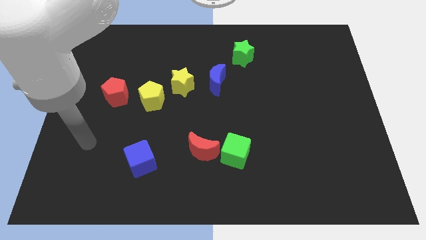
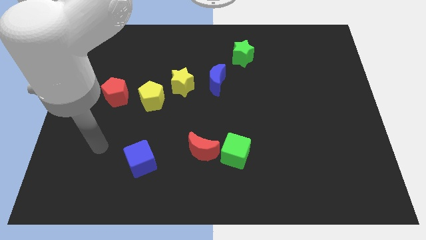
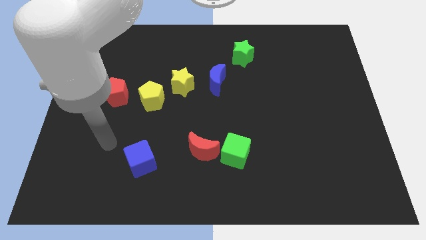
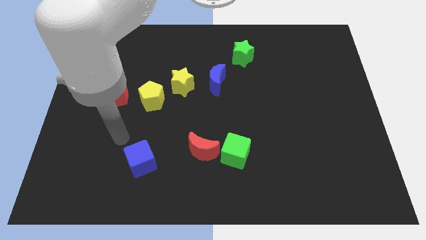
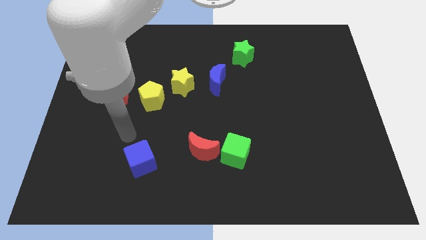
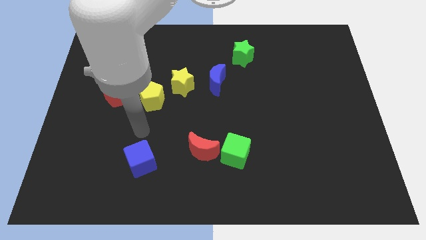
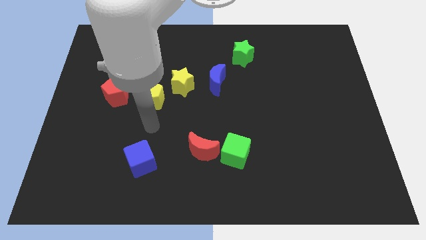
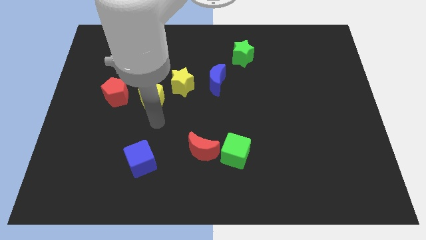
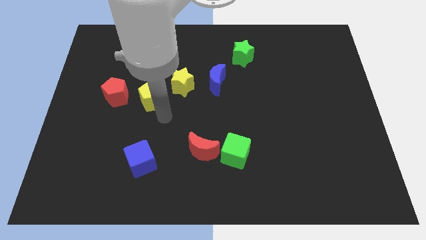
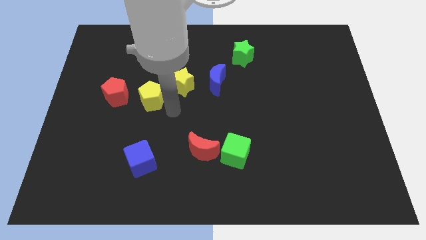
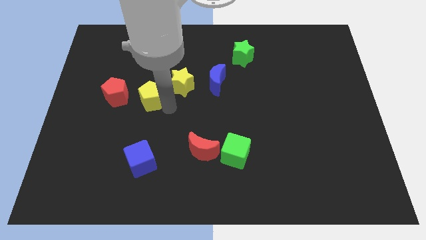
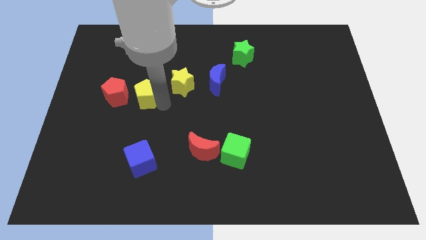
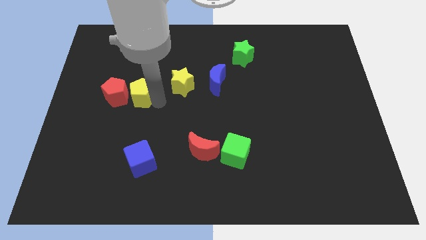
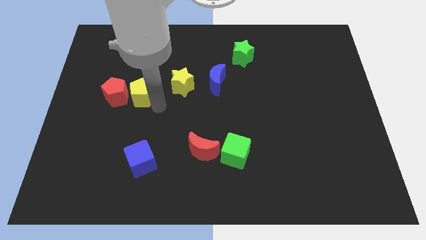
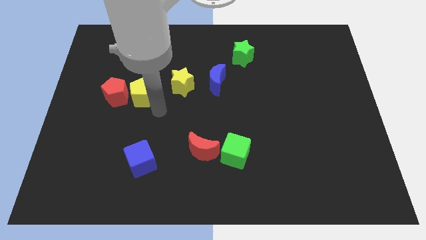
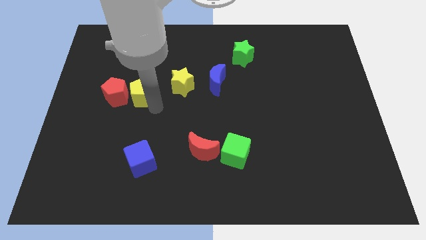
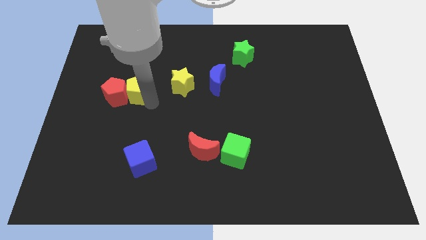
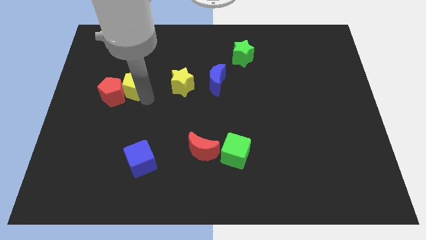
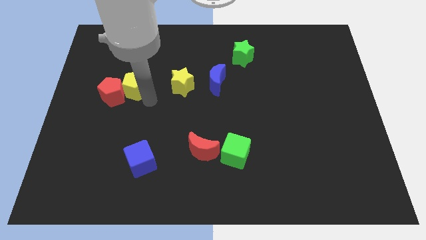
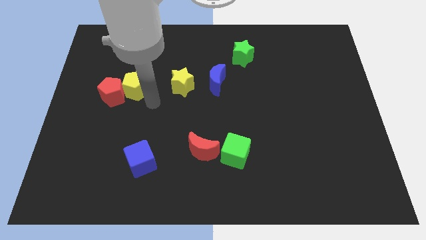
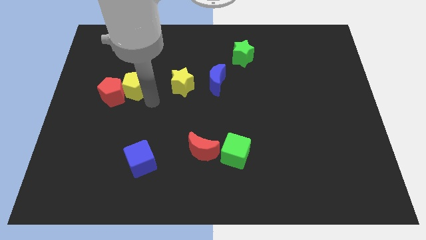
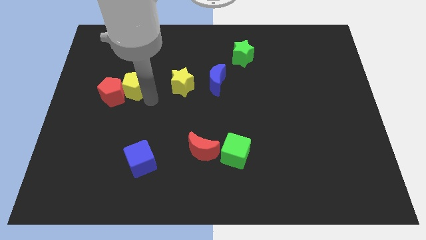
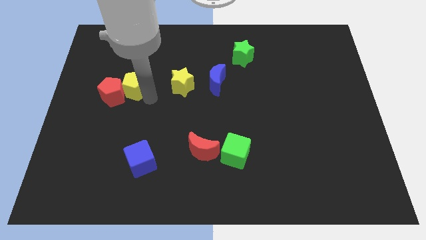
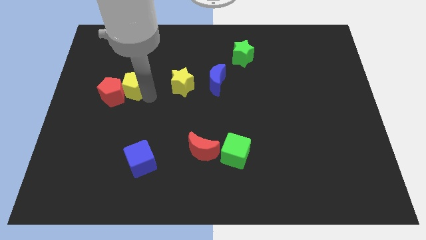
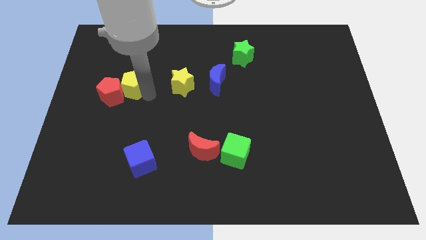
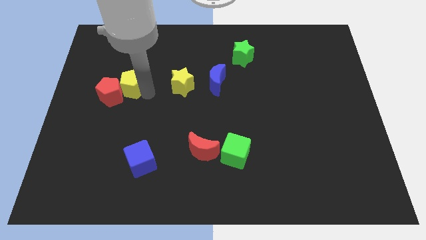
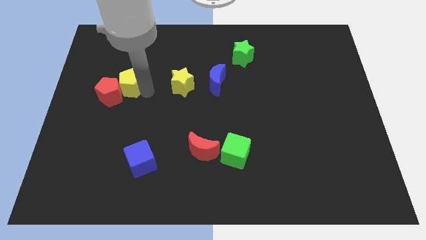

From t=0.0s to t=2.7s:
slide the yellow pentagon a little upwards and then left

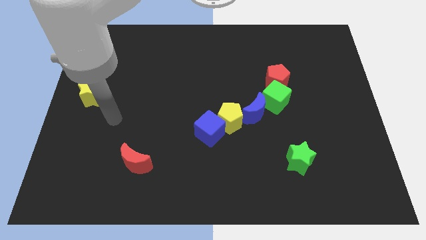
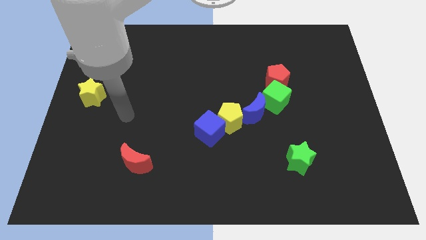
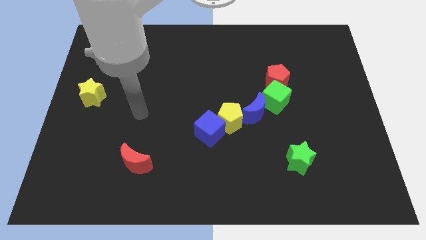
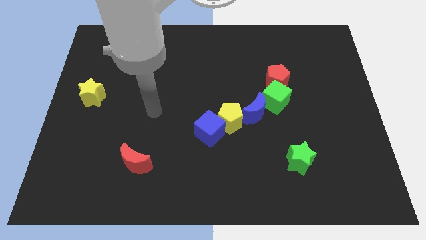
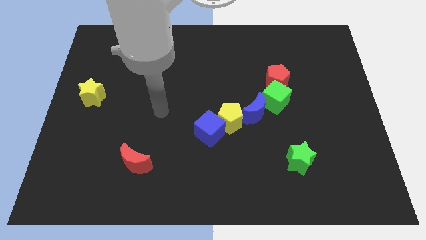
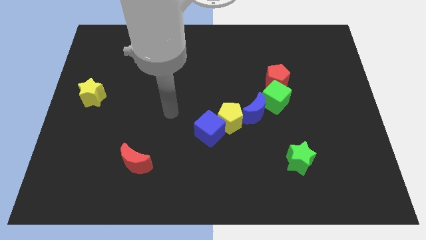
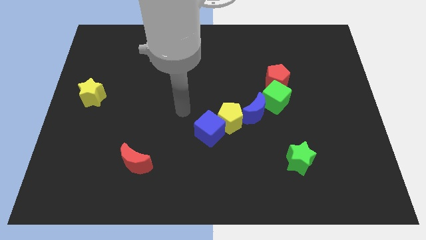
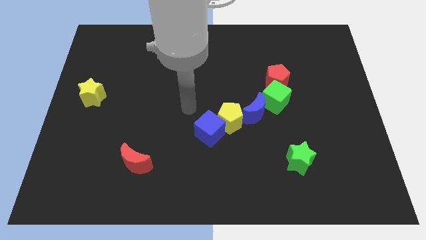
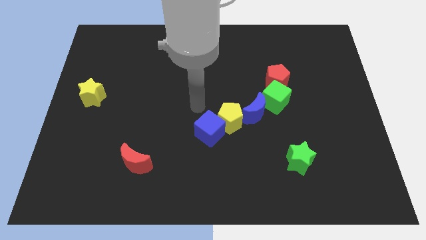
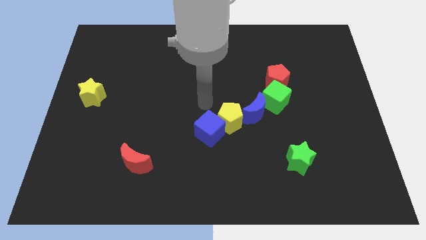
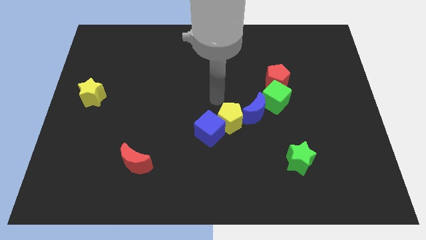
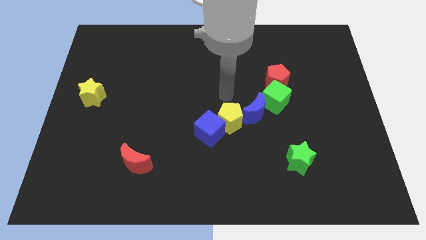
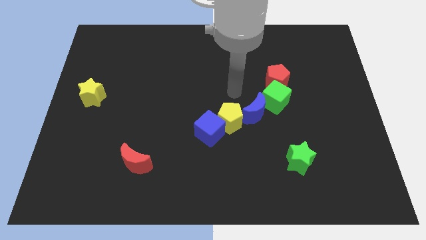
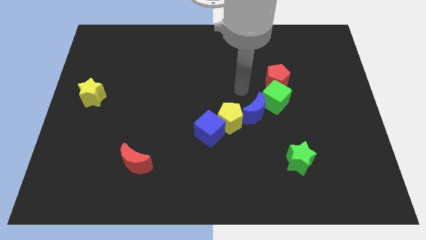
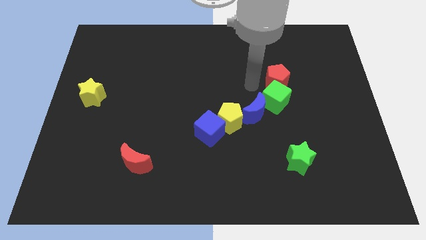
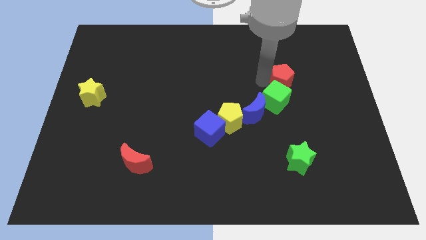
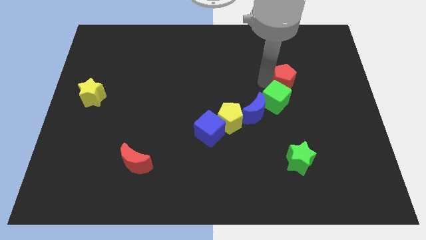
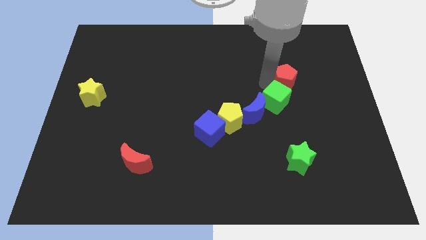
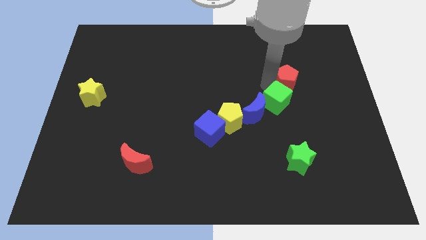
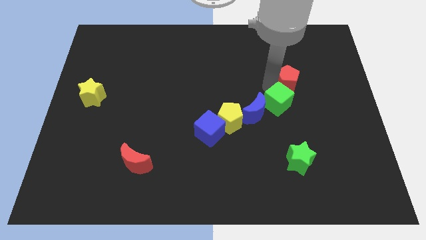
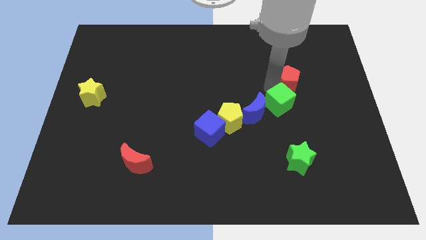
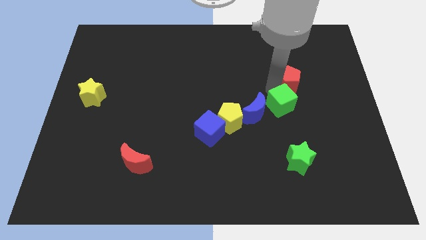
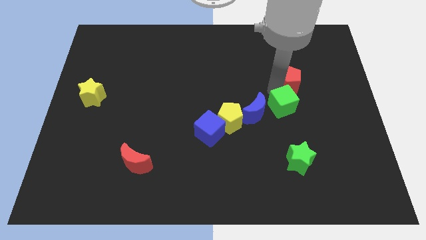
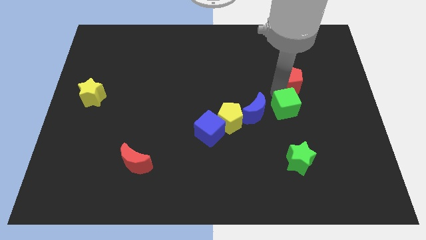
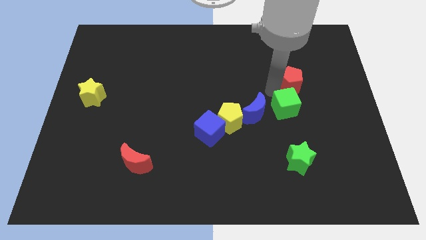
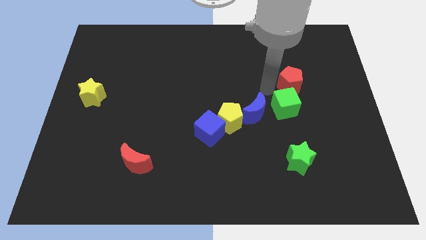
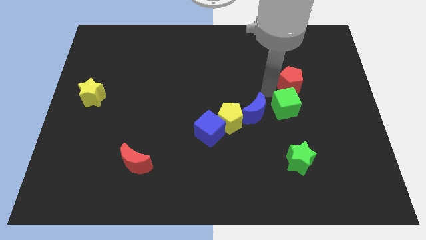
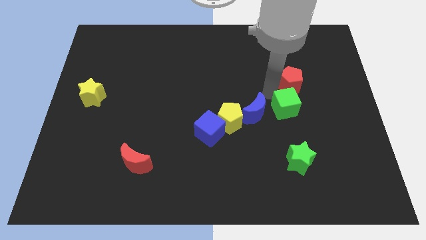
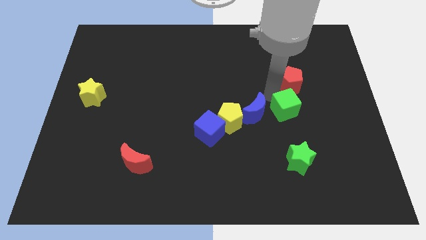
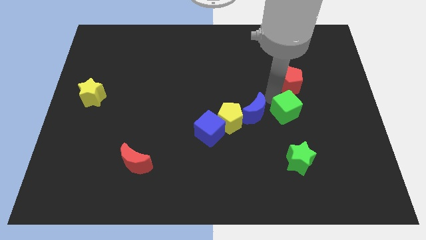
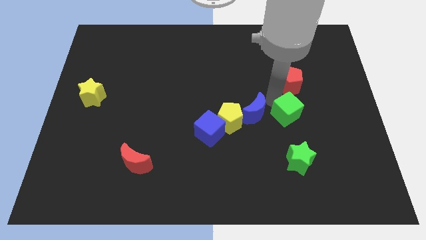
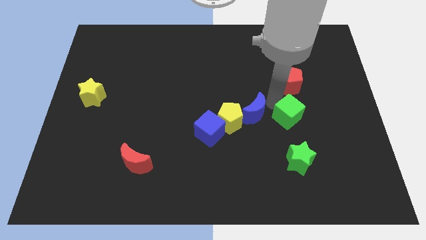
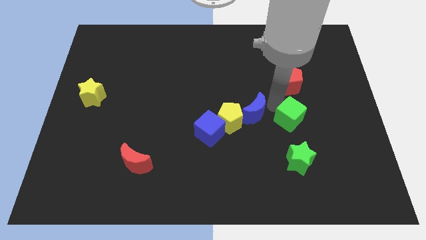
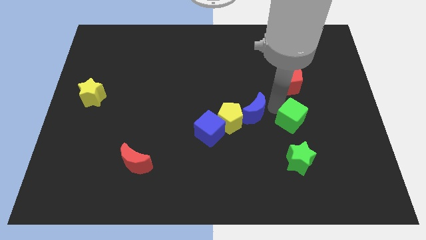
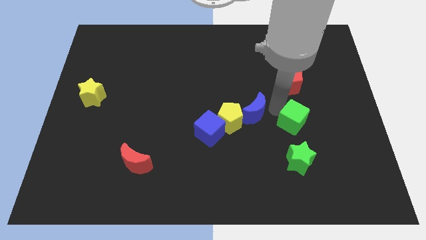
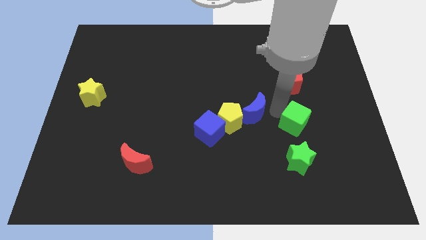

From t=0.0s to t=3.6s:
slide the green cube diagonally down and to the right a little bit

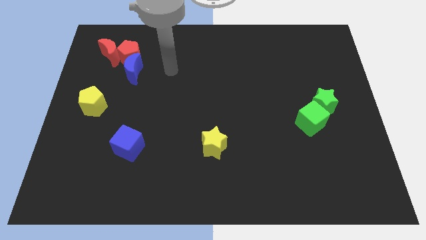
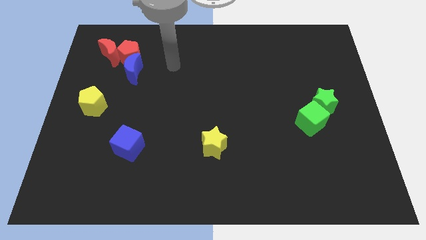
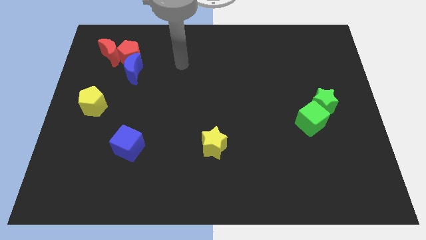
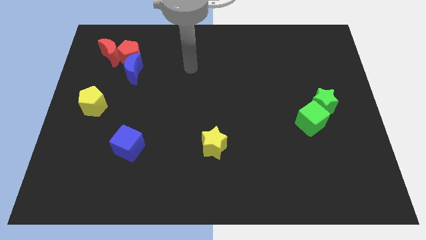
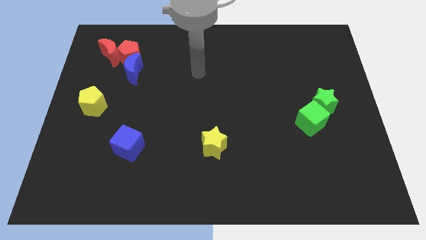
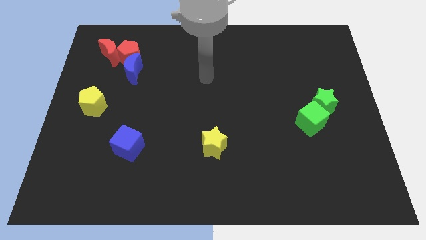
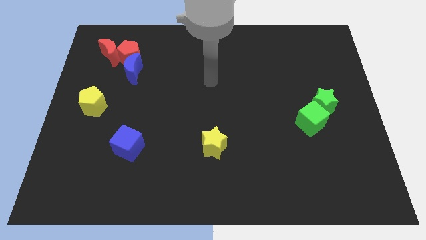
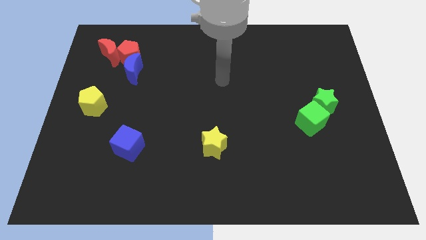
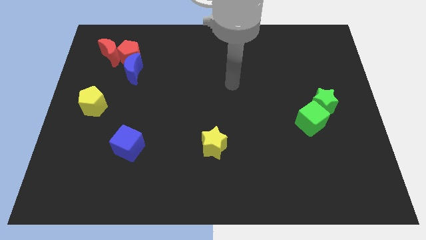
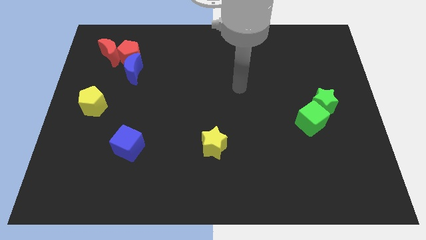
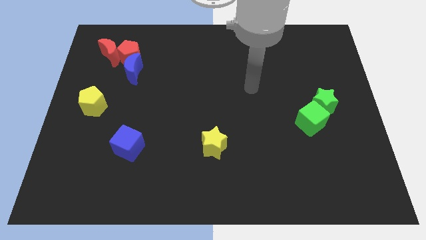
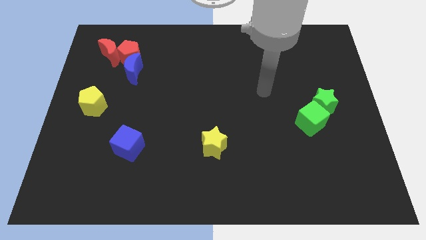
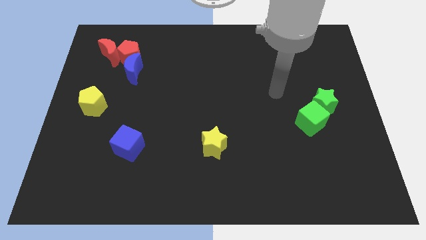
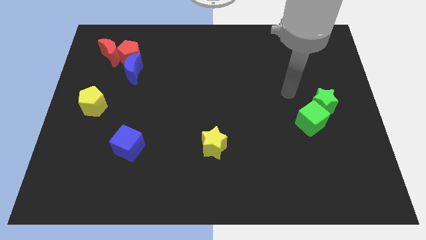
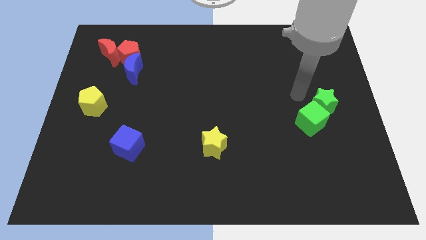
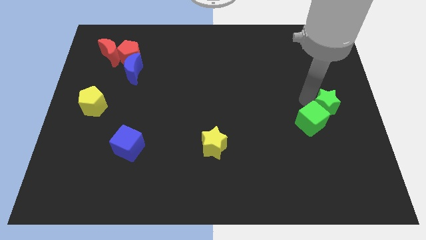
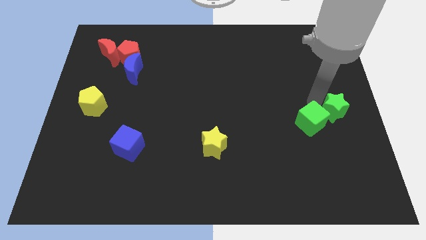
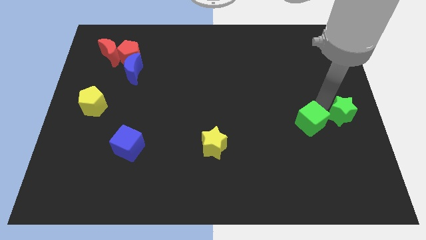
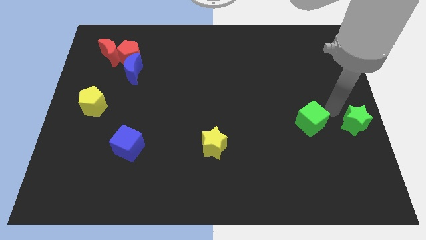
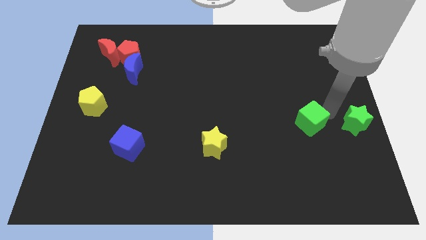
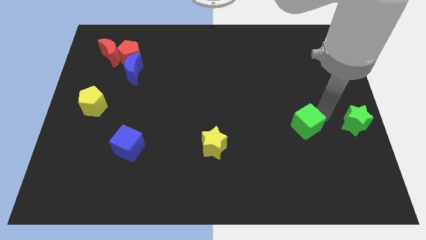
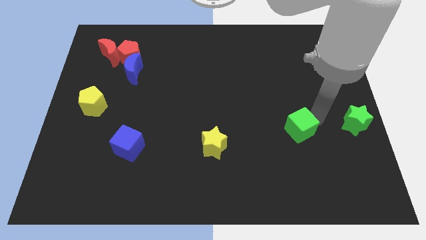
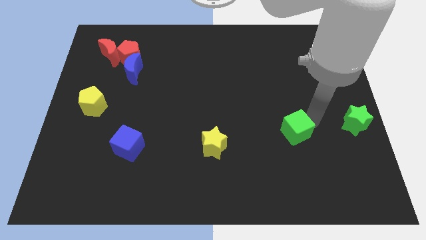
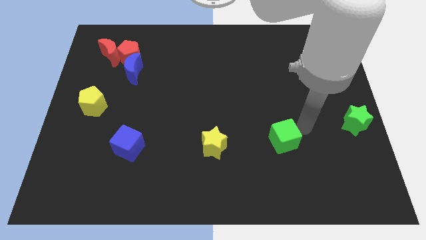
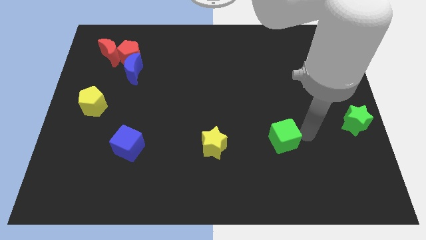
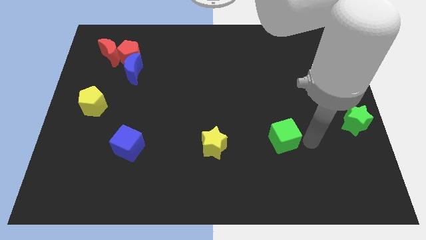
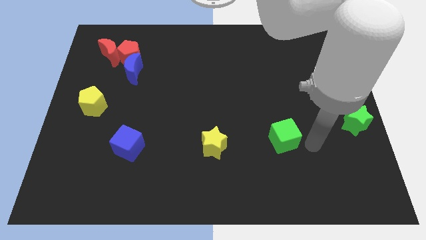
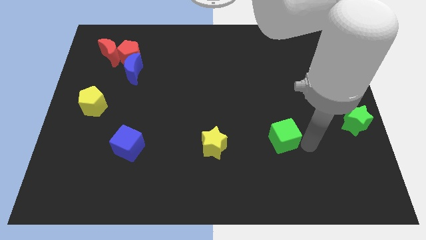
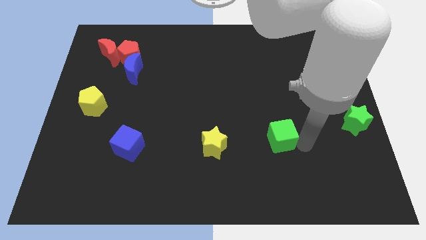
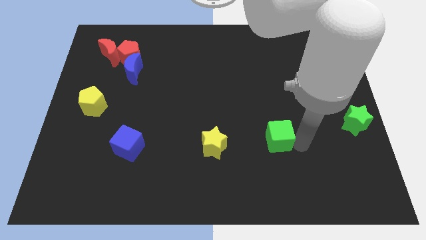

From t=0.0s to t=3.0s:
move the green cube a bit left
